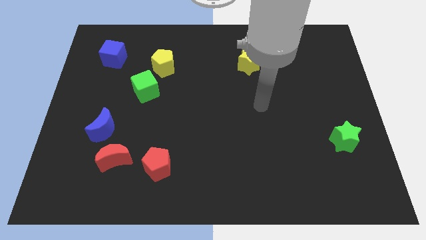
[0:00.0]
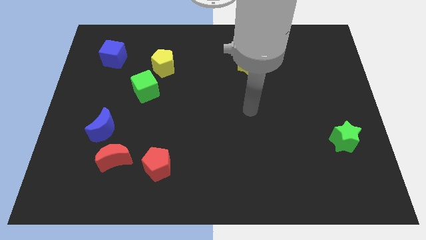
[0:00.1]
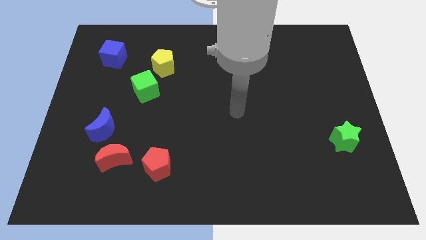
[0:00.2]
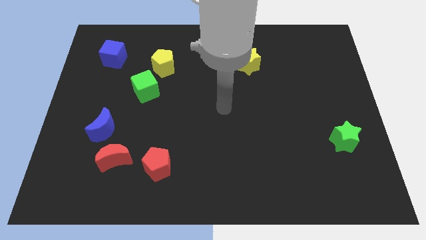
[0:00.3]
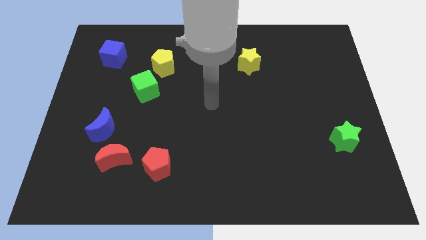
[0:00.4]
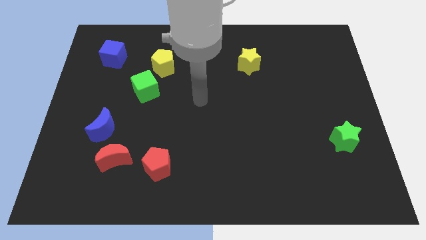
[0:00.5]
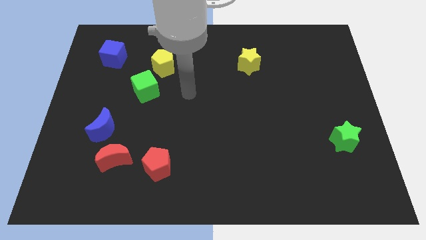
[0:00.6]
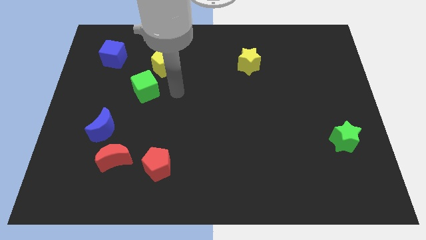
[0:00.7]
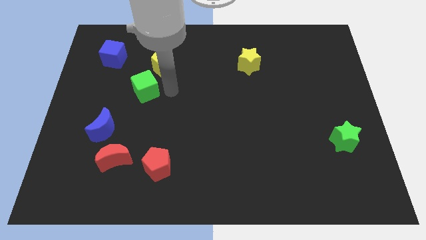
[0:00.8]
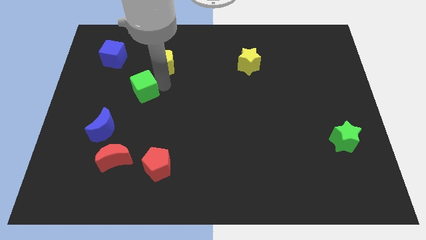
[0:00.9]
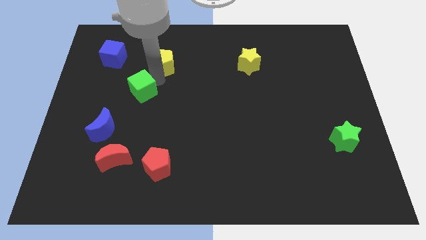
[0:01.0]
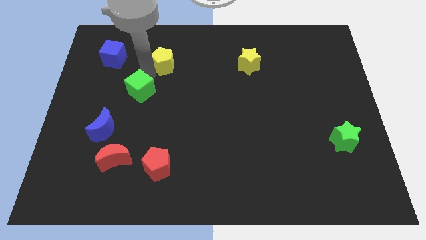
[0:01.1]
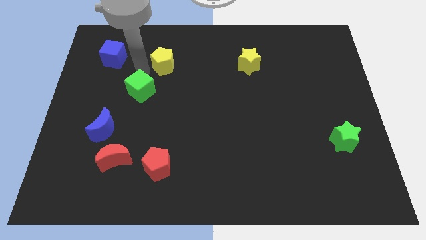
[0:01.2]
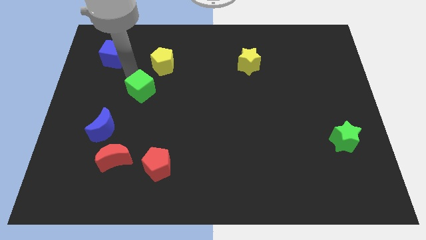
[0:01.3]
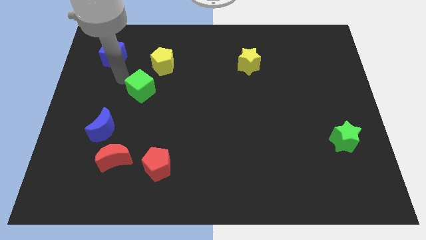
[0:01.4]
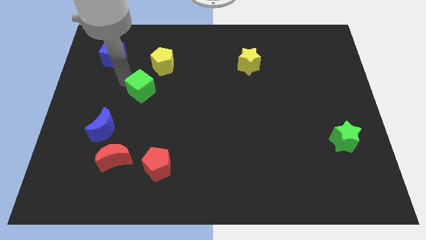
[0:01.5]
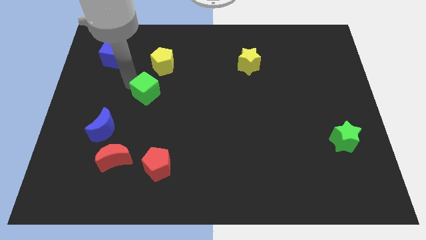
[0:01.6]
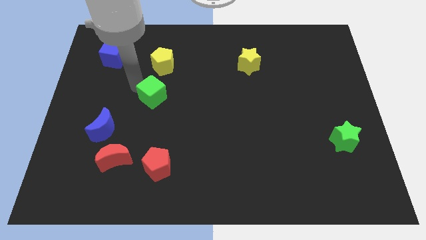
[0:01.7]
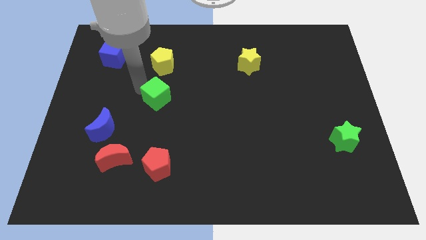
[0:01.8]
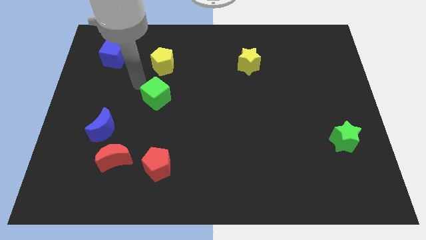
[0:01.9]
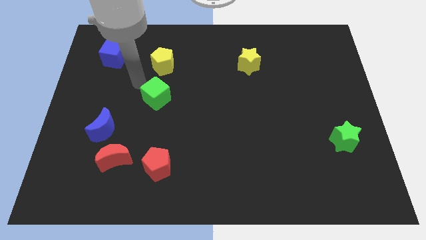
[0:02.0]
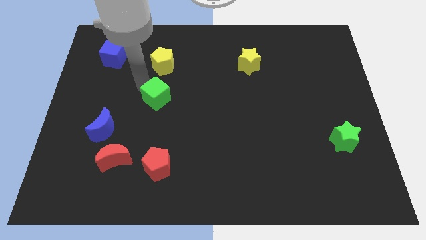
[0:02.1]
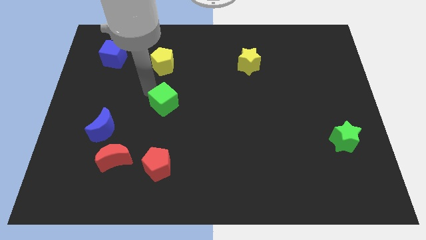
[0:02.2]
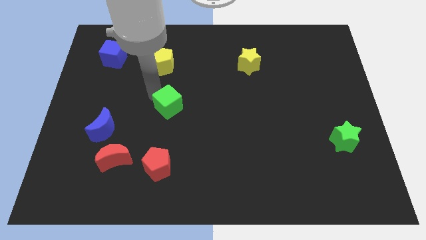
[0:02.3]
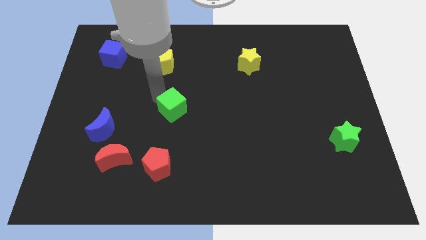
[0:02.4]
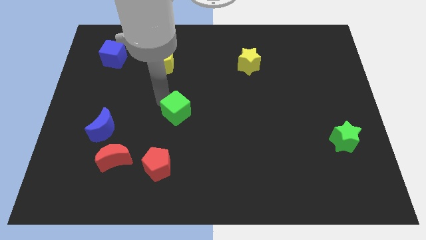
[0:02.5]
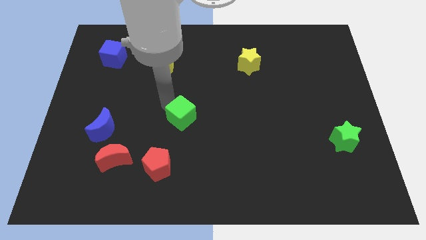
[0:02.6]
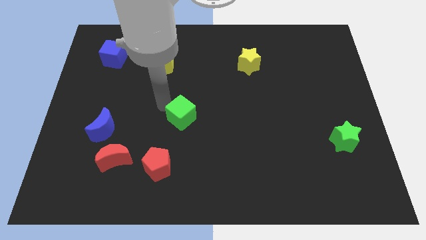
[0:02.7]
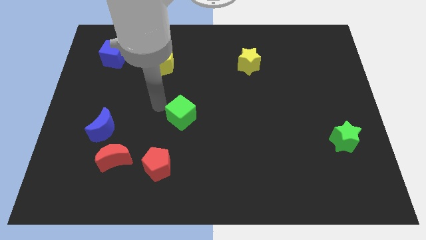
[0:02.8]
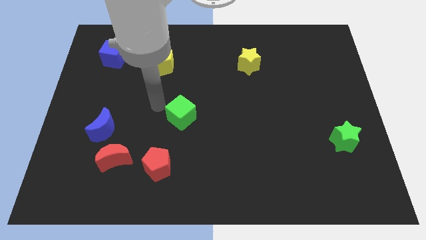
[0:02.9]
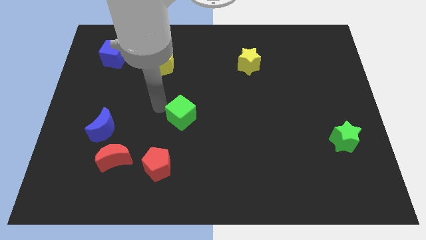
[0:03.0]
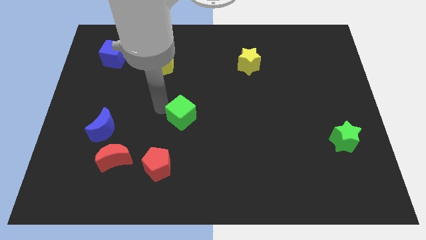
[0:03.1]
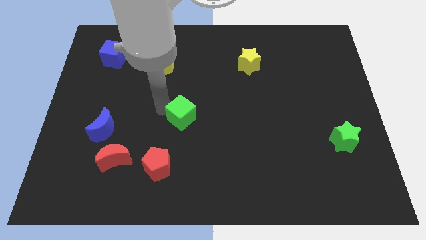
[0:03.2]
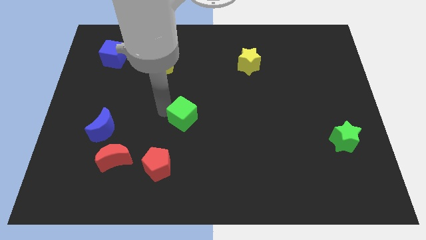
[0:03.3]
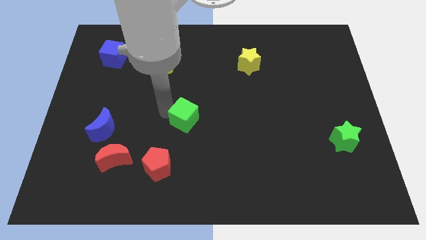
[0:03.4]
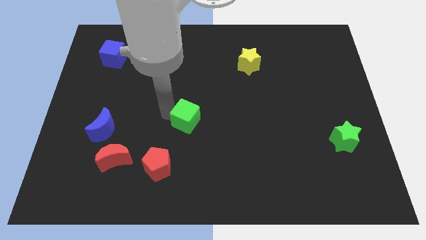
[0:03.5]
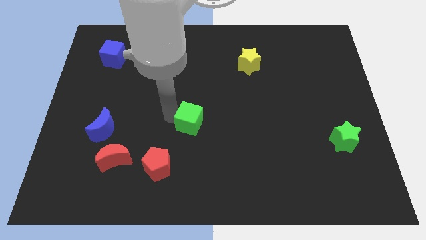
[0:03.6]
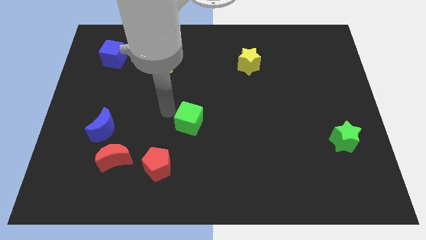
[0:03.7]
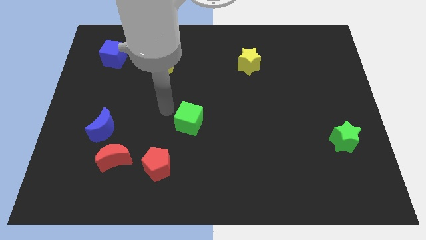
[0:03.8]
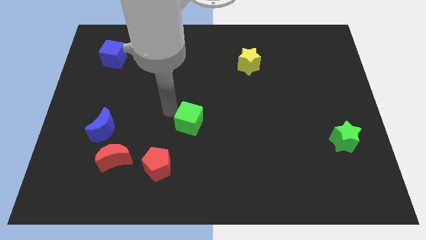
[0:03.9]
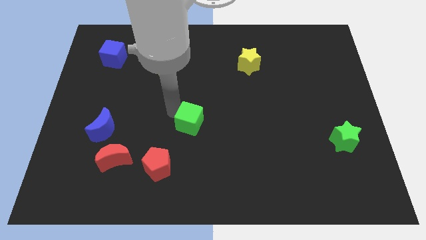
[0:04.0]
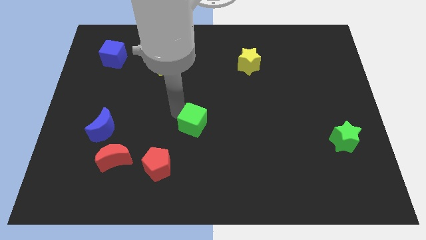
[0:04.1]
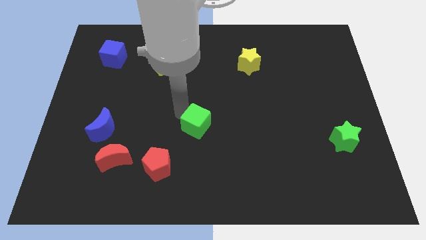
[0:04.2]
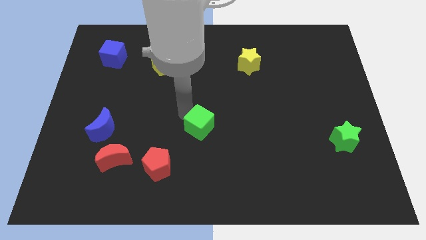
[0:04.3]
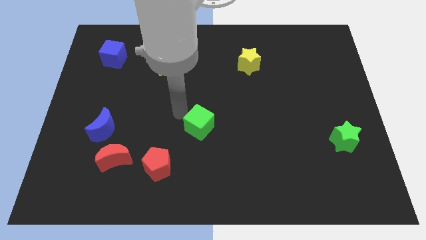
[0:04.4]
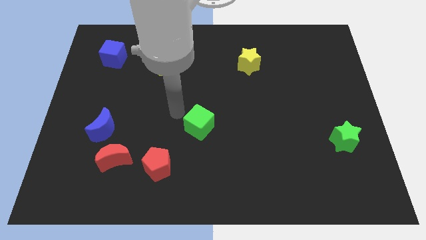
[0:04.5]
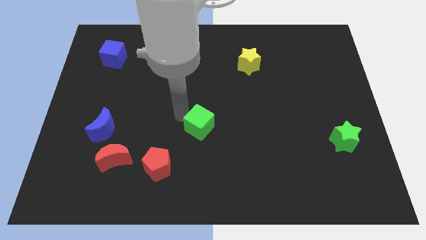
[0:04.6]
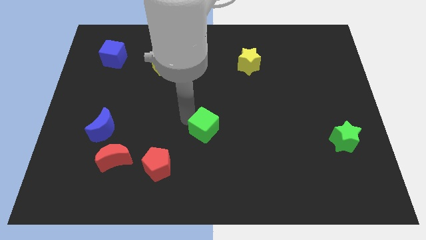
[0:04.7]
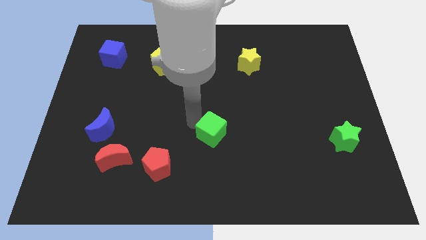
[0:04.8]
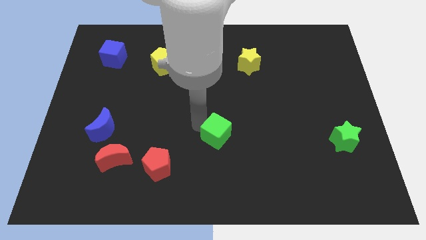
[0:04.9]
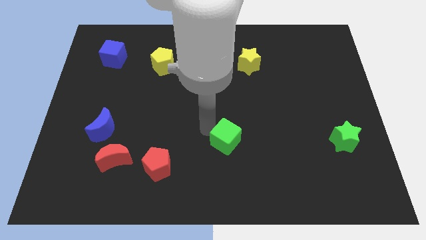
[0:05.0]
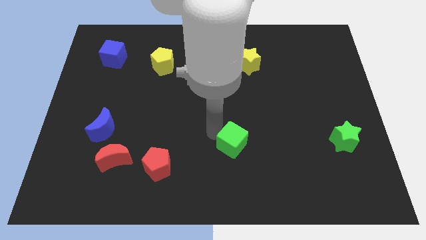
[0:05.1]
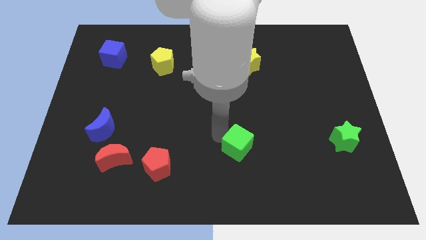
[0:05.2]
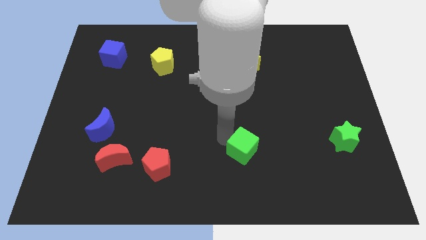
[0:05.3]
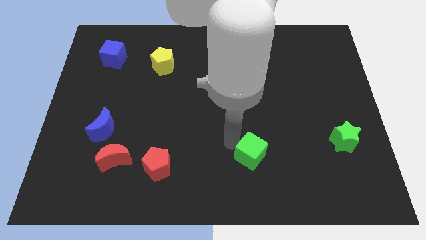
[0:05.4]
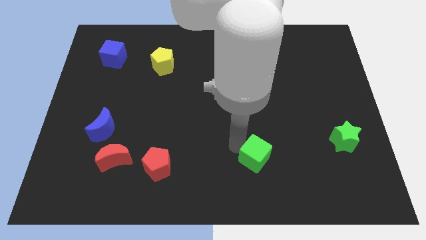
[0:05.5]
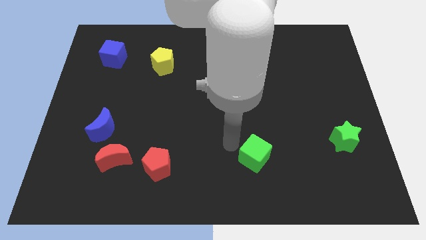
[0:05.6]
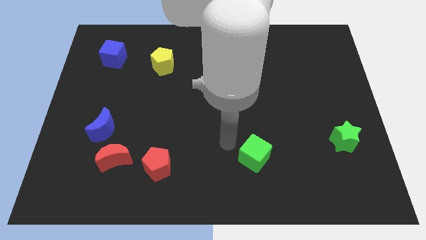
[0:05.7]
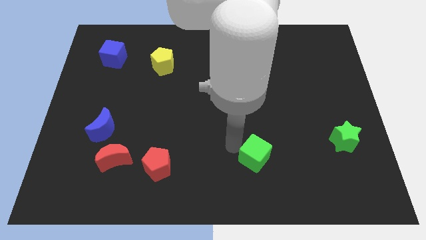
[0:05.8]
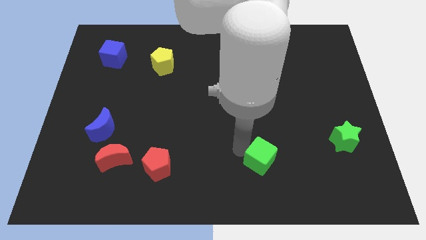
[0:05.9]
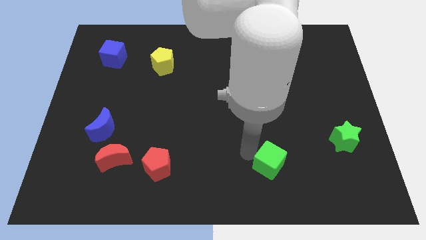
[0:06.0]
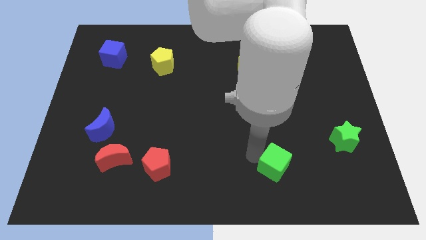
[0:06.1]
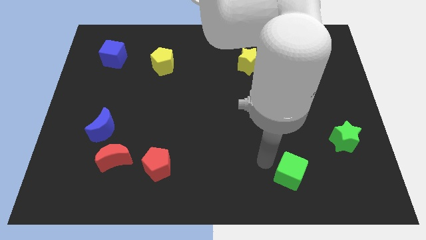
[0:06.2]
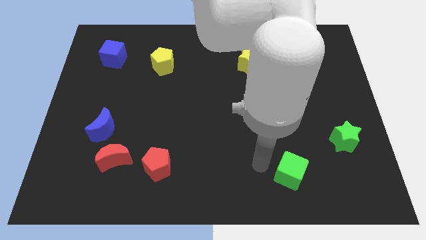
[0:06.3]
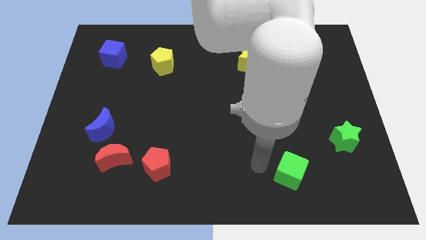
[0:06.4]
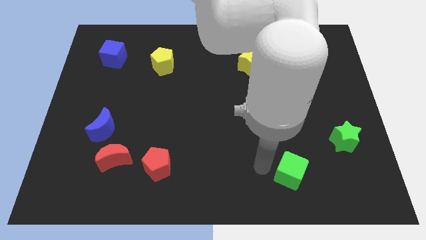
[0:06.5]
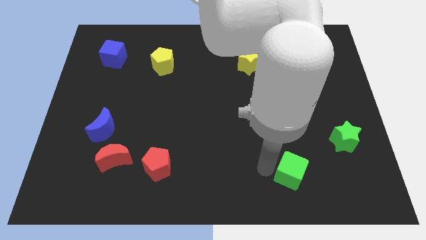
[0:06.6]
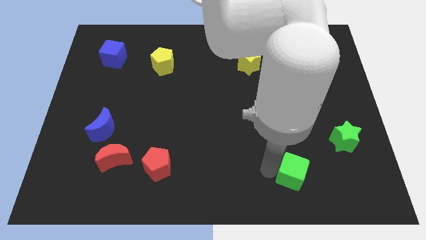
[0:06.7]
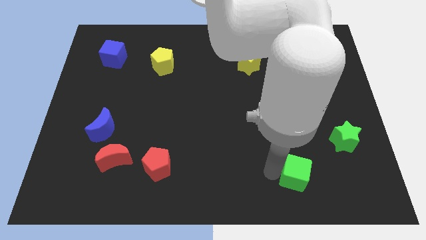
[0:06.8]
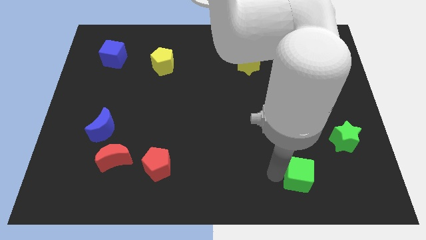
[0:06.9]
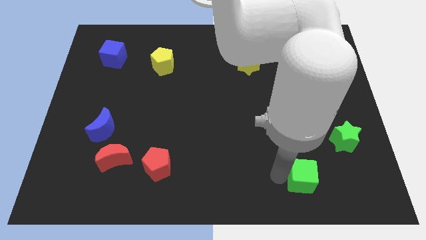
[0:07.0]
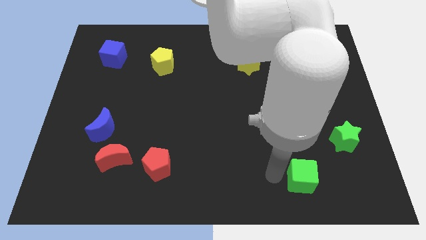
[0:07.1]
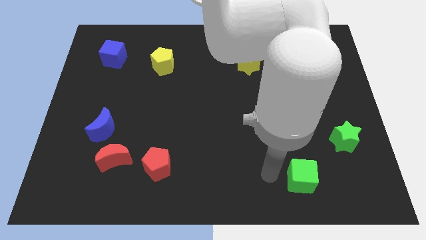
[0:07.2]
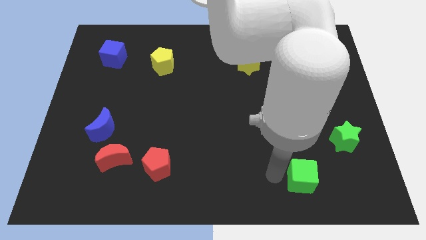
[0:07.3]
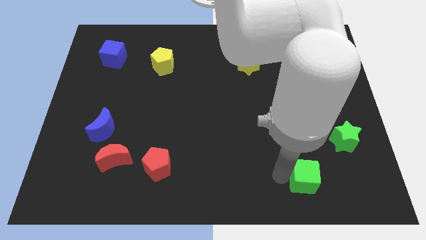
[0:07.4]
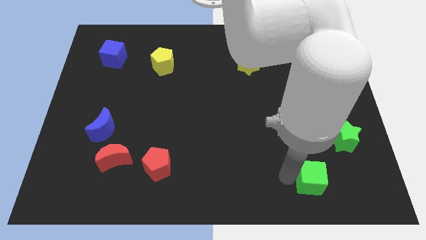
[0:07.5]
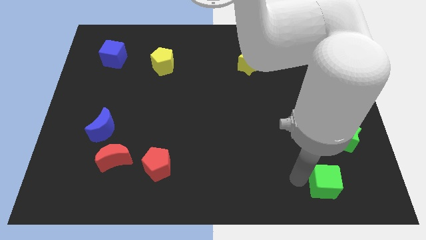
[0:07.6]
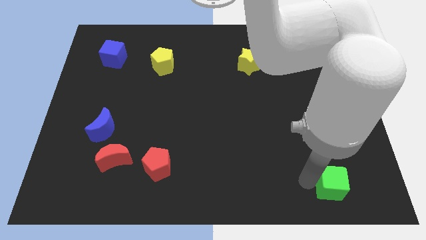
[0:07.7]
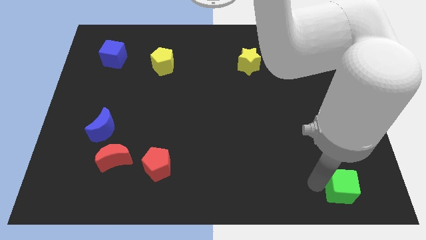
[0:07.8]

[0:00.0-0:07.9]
push the green cube to the bottom side of the green star
